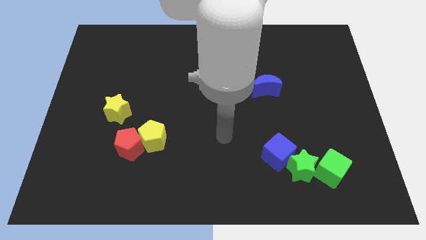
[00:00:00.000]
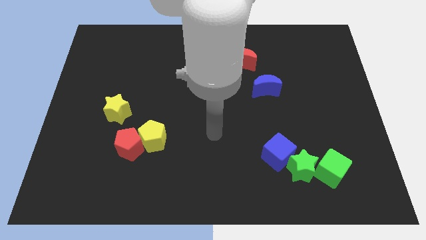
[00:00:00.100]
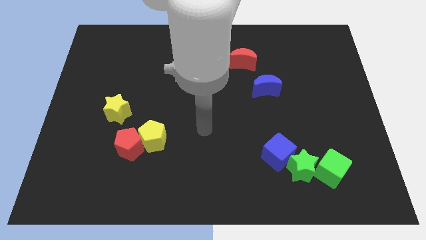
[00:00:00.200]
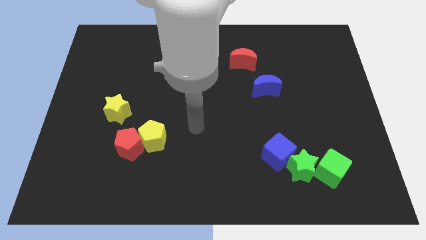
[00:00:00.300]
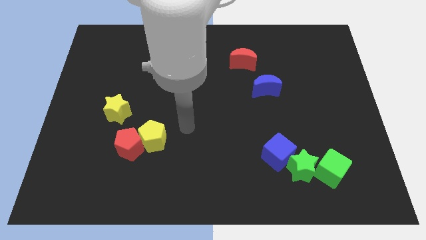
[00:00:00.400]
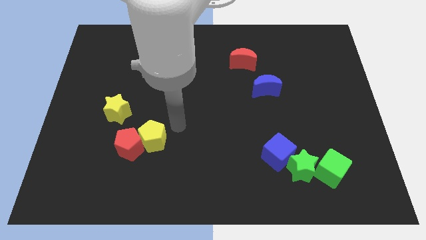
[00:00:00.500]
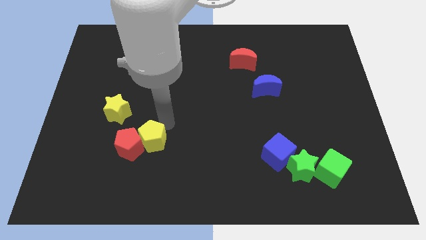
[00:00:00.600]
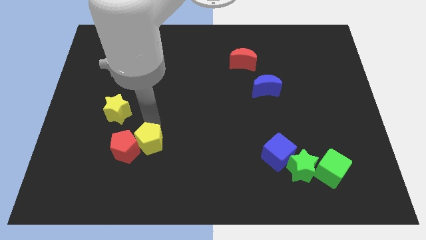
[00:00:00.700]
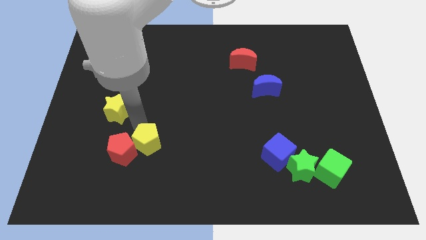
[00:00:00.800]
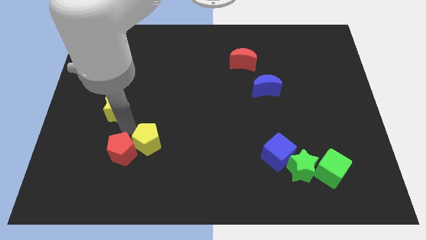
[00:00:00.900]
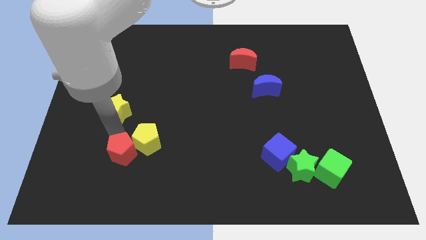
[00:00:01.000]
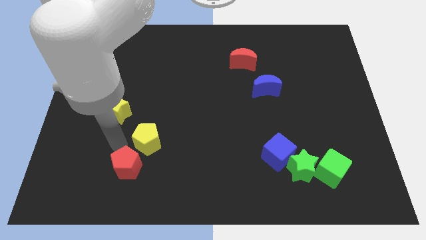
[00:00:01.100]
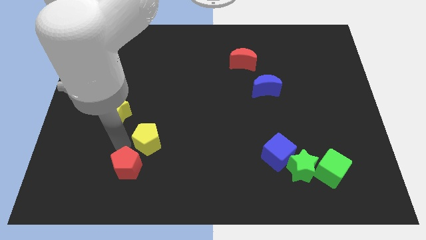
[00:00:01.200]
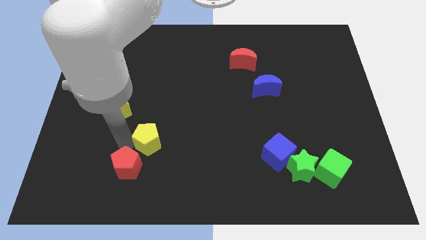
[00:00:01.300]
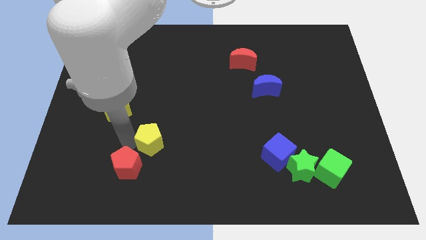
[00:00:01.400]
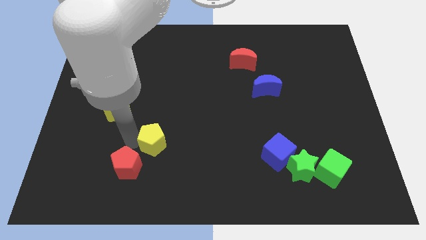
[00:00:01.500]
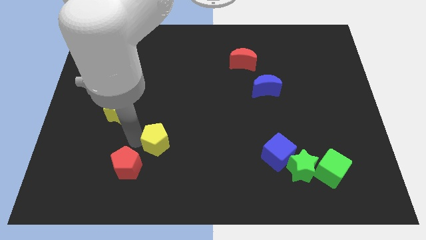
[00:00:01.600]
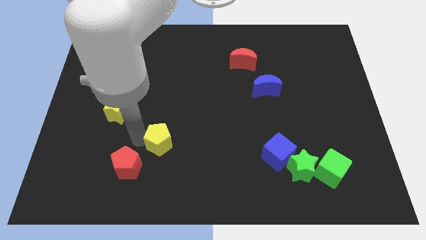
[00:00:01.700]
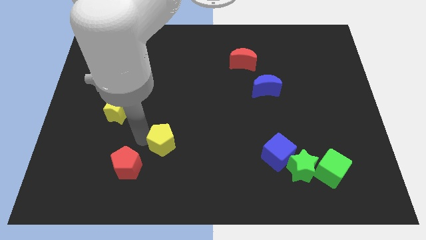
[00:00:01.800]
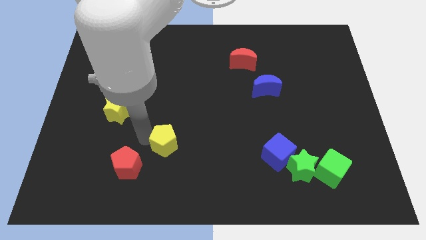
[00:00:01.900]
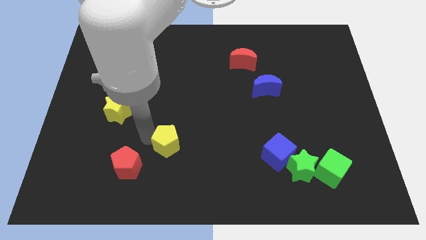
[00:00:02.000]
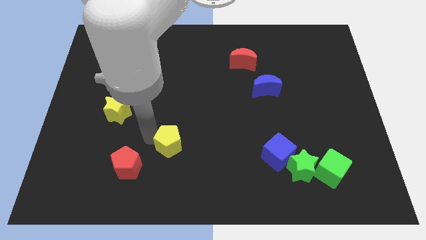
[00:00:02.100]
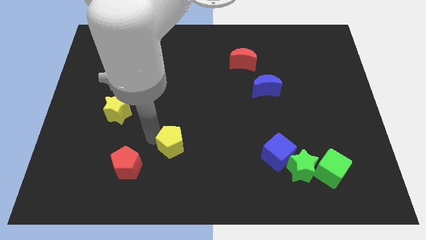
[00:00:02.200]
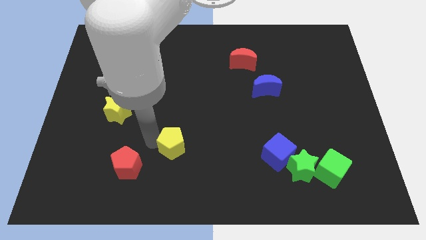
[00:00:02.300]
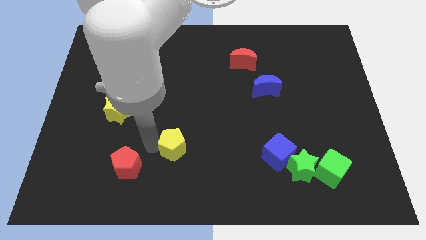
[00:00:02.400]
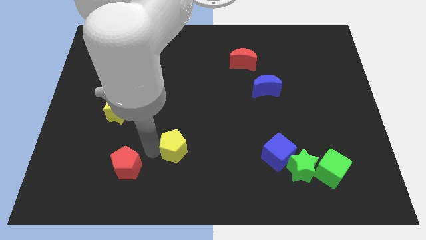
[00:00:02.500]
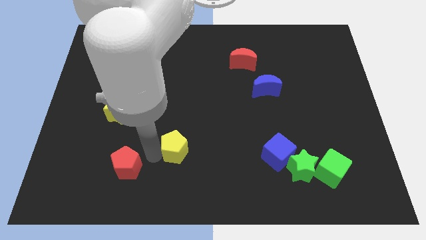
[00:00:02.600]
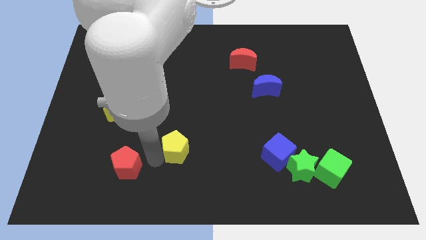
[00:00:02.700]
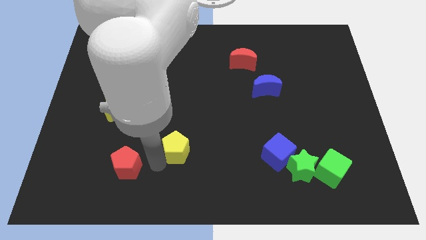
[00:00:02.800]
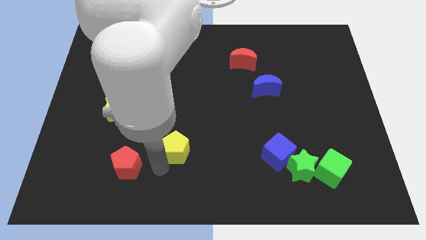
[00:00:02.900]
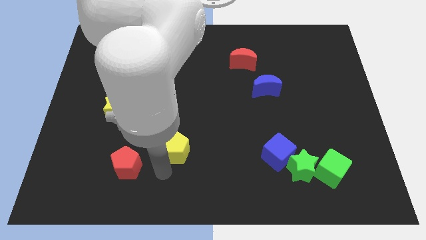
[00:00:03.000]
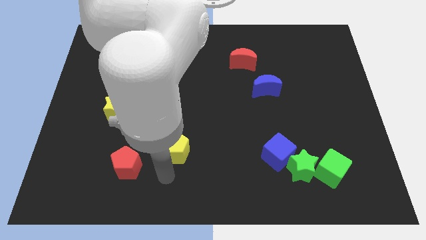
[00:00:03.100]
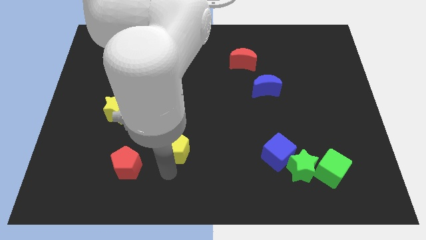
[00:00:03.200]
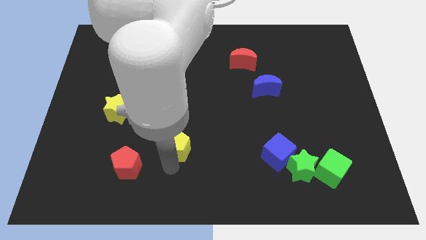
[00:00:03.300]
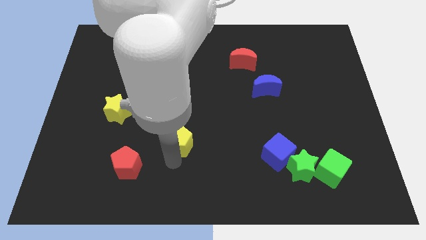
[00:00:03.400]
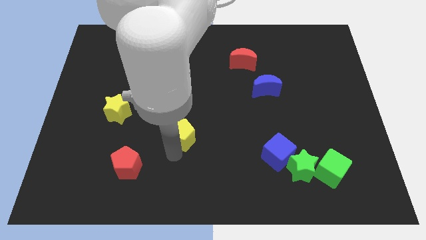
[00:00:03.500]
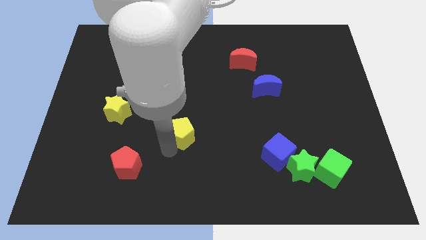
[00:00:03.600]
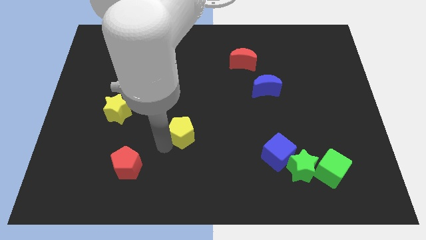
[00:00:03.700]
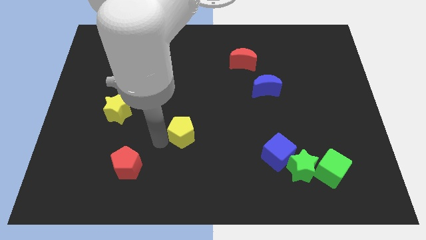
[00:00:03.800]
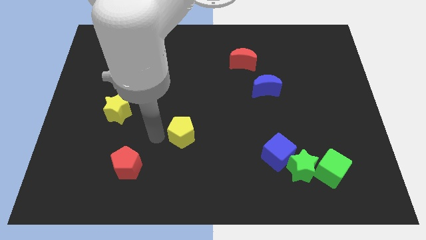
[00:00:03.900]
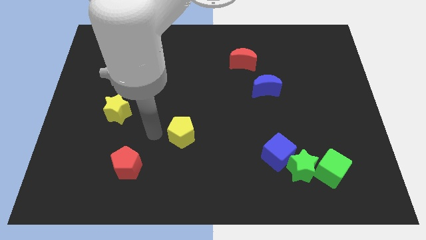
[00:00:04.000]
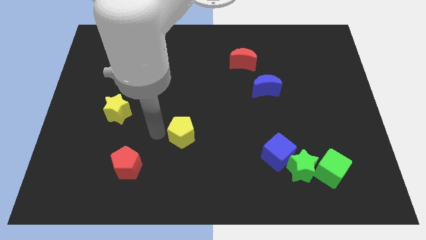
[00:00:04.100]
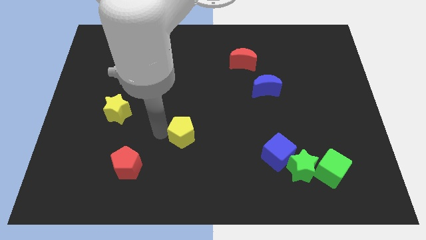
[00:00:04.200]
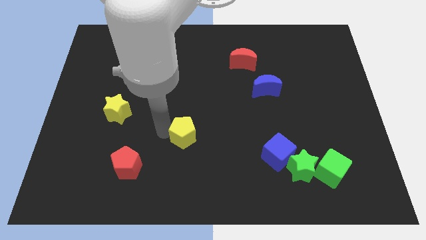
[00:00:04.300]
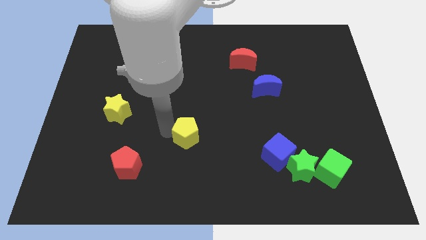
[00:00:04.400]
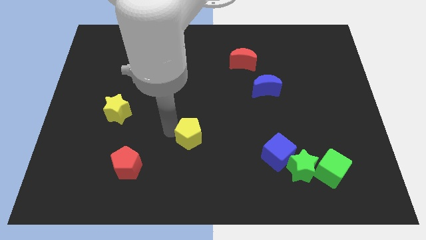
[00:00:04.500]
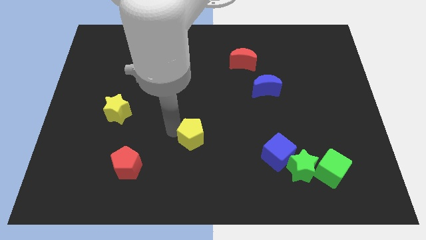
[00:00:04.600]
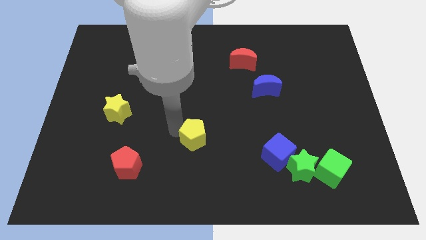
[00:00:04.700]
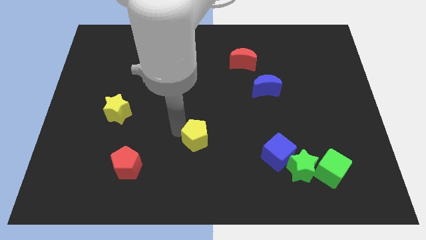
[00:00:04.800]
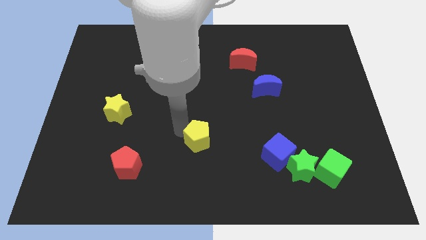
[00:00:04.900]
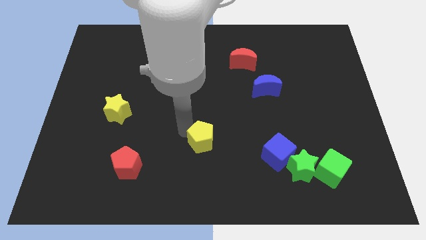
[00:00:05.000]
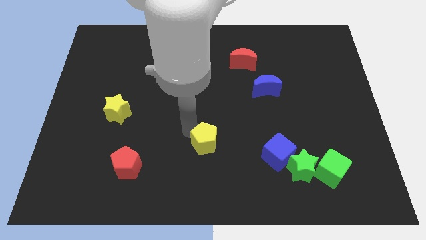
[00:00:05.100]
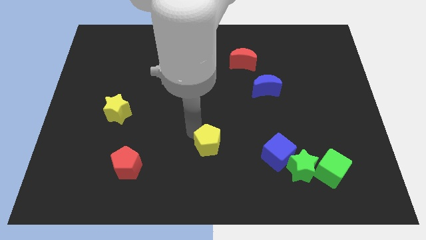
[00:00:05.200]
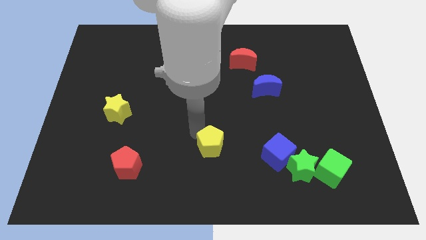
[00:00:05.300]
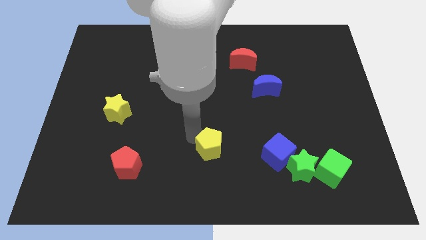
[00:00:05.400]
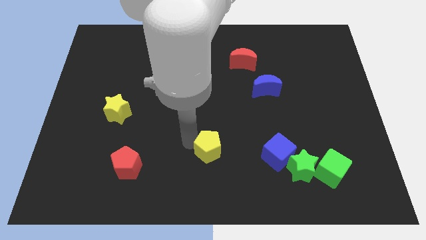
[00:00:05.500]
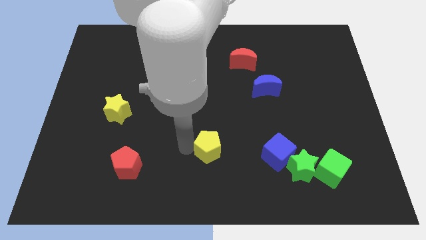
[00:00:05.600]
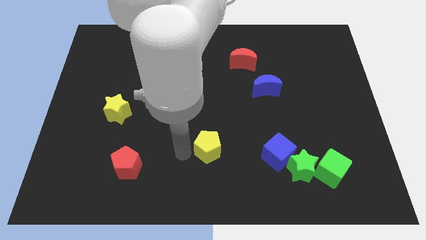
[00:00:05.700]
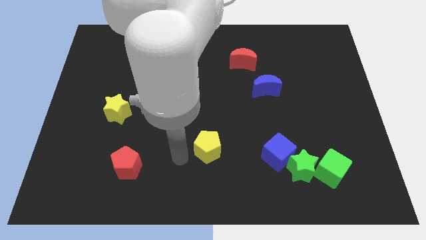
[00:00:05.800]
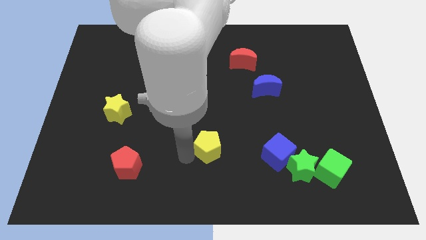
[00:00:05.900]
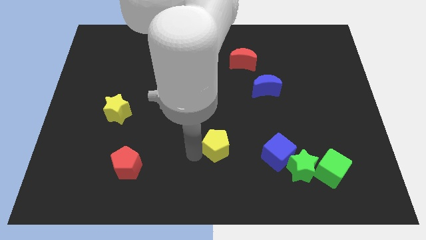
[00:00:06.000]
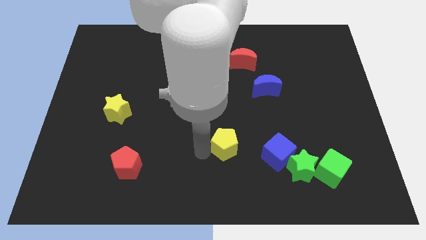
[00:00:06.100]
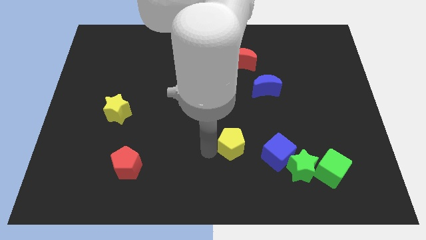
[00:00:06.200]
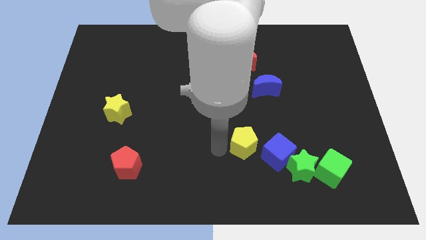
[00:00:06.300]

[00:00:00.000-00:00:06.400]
move the yellow pentagon to the right

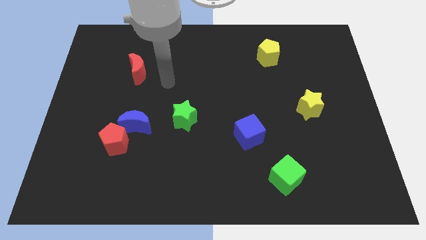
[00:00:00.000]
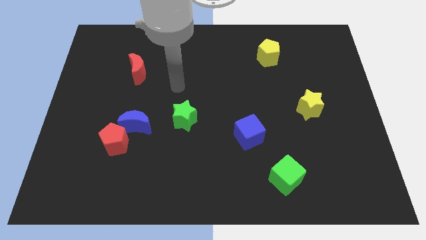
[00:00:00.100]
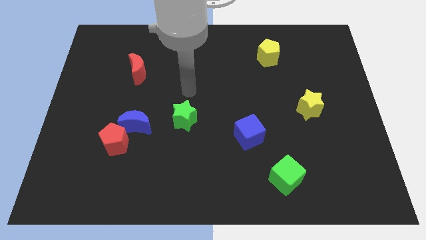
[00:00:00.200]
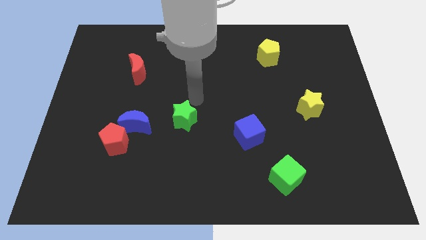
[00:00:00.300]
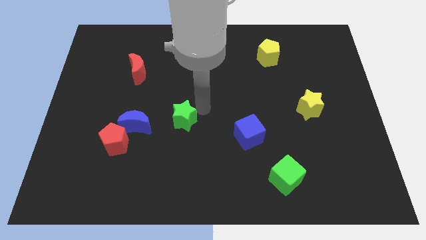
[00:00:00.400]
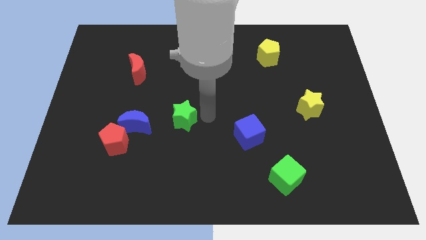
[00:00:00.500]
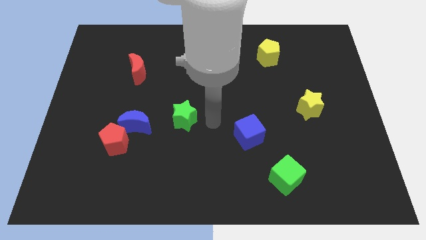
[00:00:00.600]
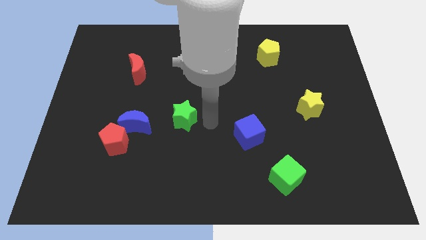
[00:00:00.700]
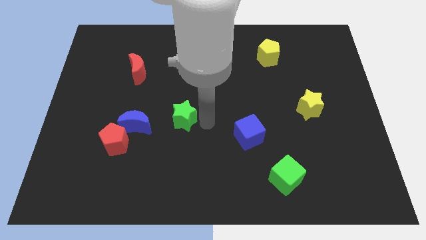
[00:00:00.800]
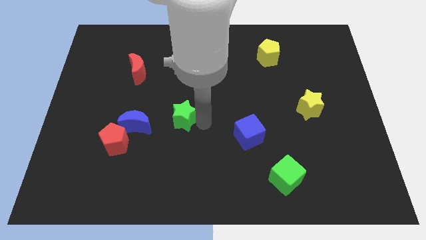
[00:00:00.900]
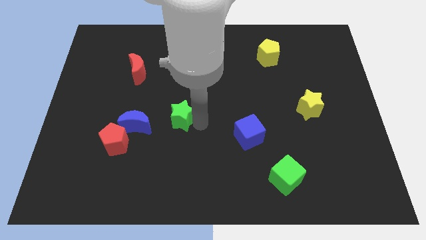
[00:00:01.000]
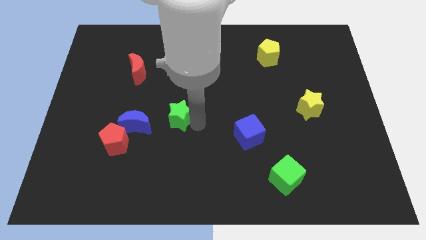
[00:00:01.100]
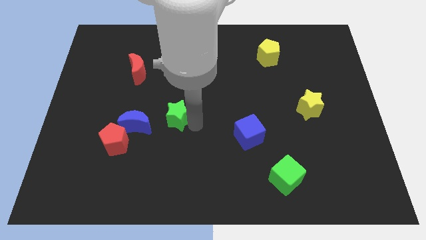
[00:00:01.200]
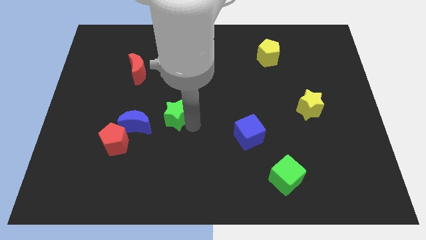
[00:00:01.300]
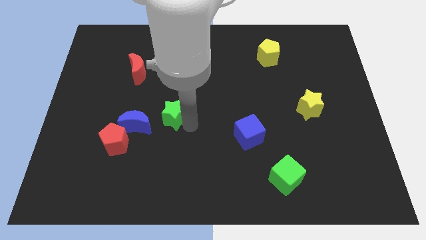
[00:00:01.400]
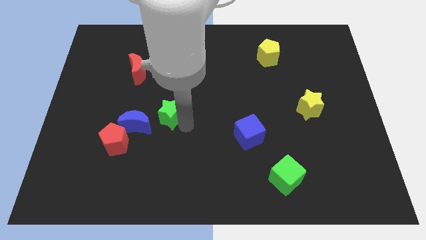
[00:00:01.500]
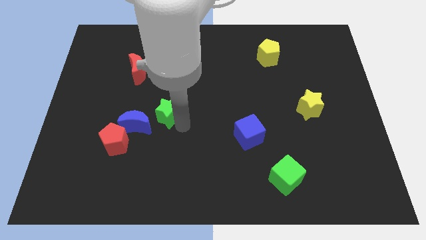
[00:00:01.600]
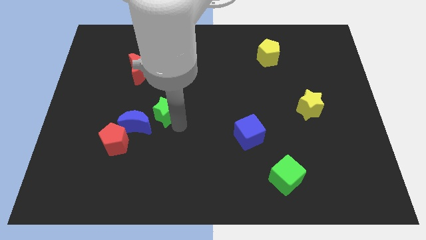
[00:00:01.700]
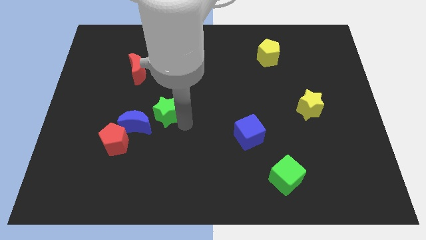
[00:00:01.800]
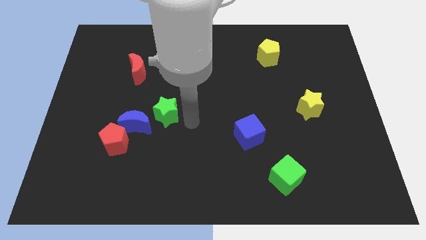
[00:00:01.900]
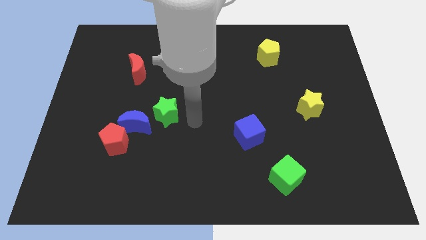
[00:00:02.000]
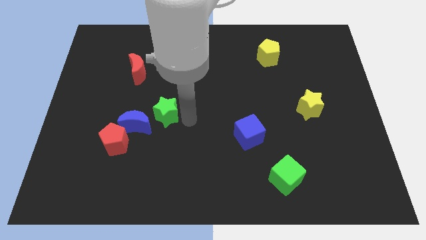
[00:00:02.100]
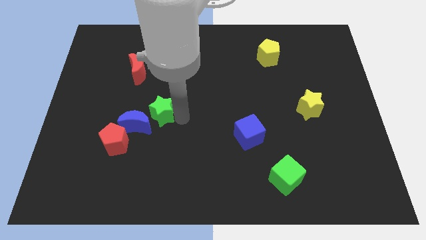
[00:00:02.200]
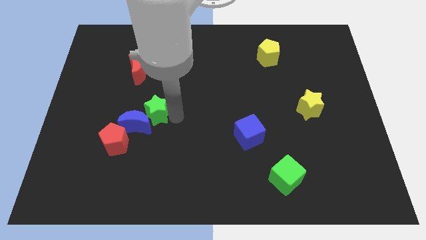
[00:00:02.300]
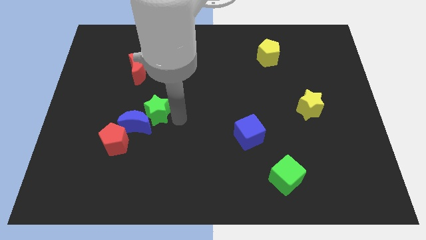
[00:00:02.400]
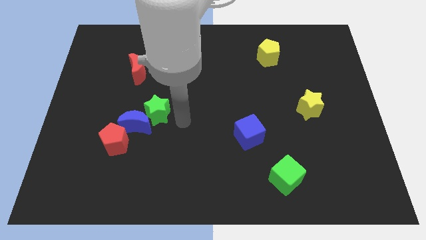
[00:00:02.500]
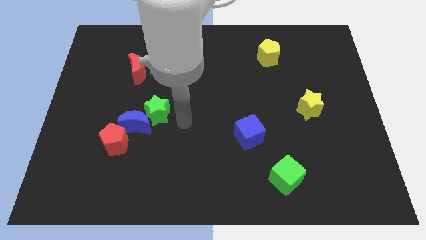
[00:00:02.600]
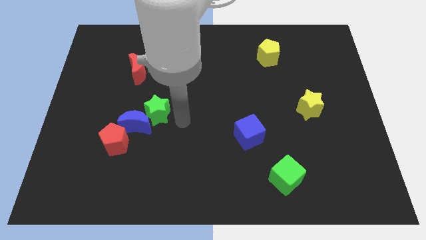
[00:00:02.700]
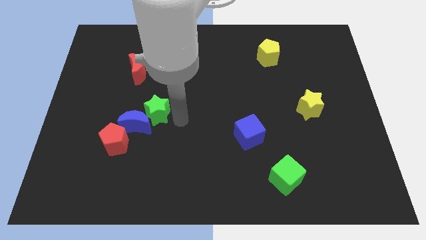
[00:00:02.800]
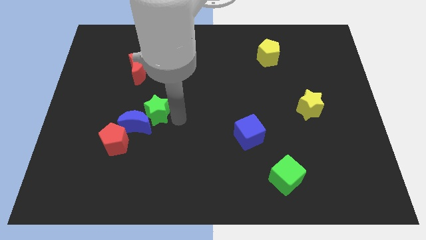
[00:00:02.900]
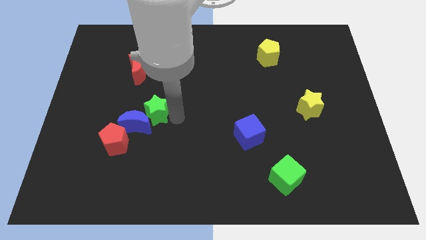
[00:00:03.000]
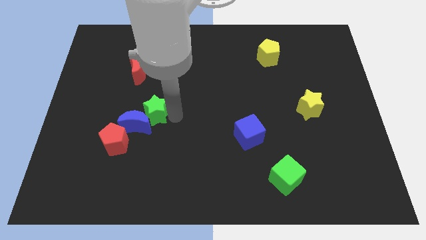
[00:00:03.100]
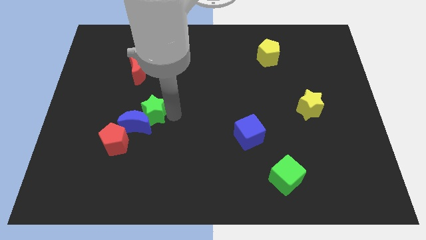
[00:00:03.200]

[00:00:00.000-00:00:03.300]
move the green star slightly to the left
